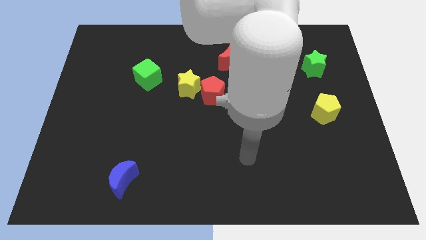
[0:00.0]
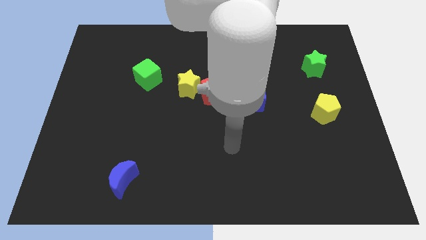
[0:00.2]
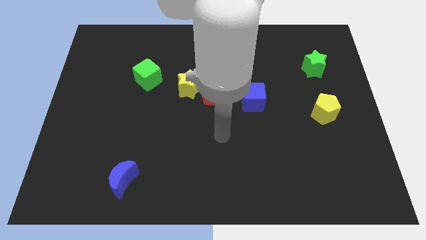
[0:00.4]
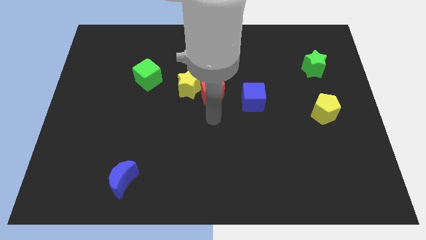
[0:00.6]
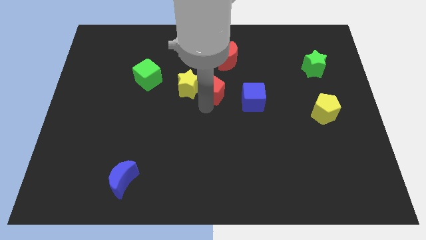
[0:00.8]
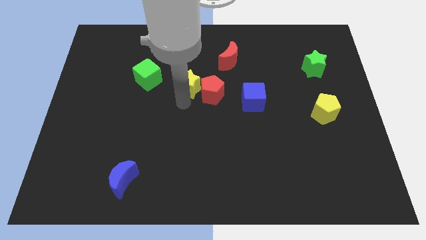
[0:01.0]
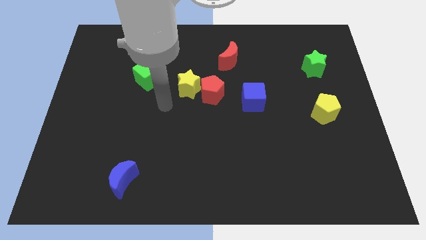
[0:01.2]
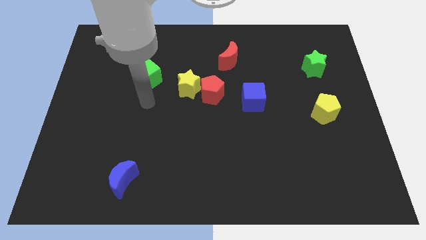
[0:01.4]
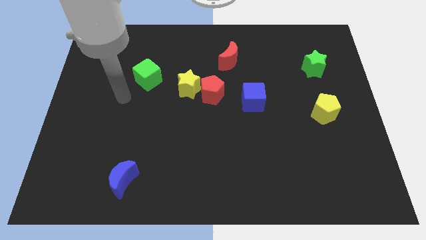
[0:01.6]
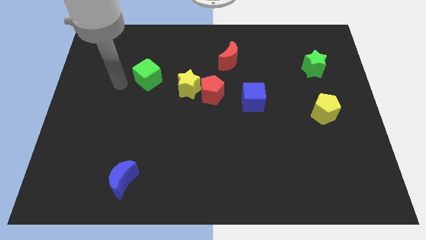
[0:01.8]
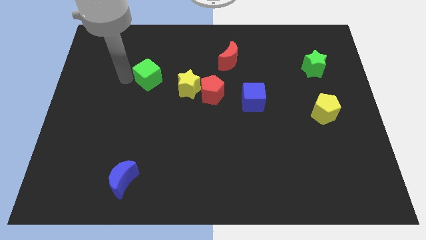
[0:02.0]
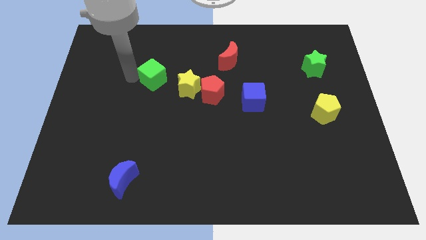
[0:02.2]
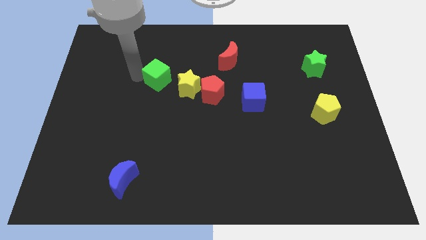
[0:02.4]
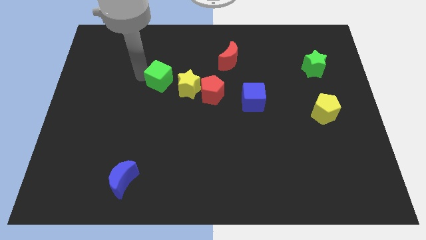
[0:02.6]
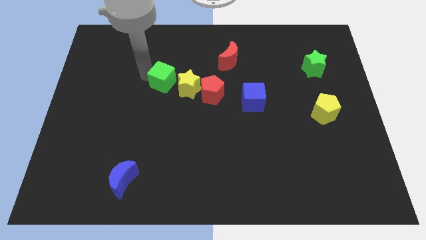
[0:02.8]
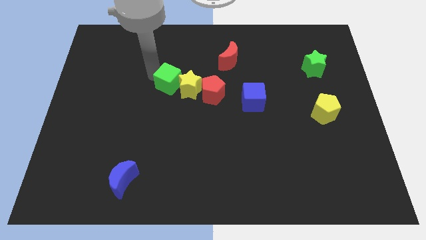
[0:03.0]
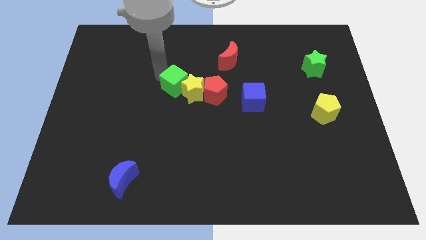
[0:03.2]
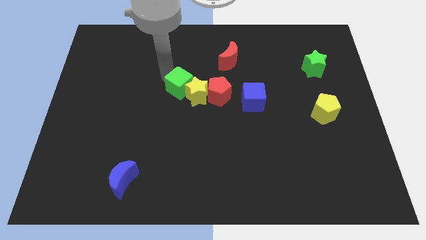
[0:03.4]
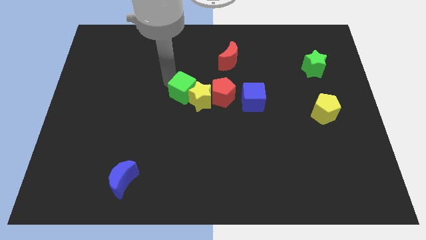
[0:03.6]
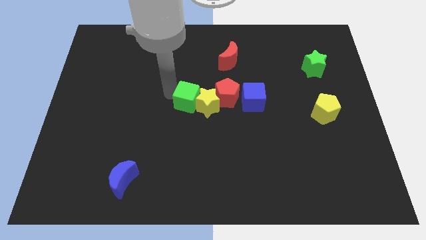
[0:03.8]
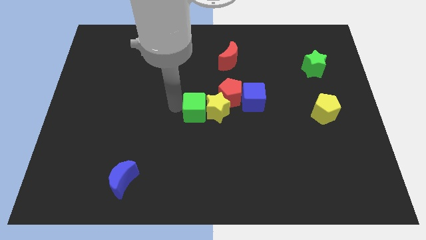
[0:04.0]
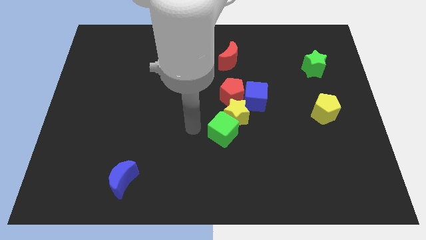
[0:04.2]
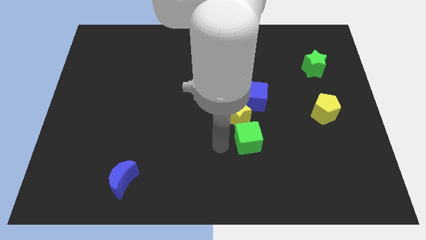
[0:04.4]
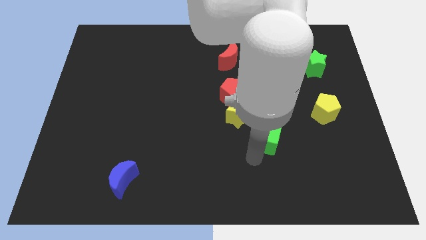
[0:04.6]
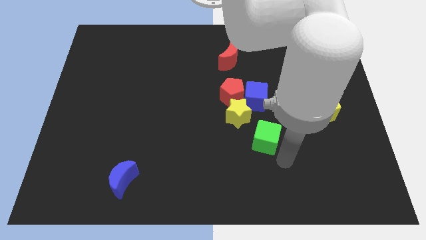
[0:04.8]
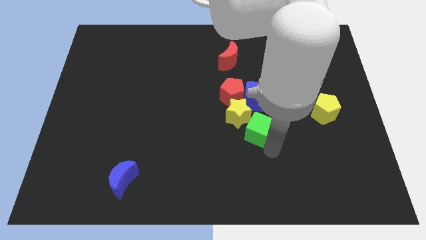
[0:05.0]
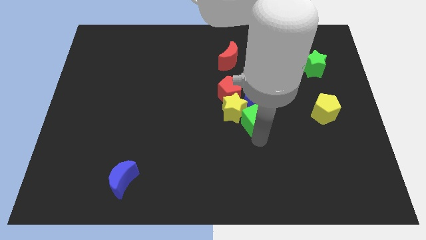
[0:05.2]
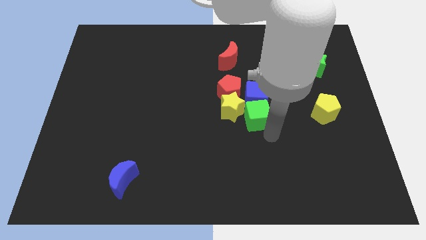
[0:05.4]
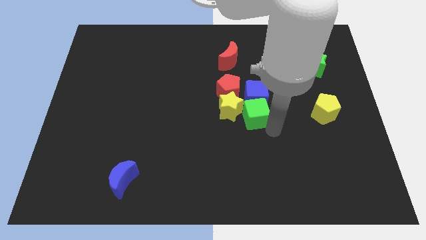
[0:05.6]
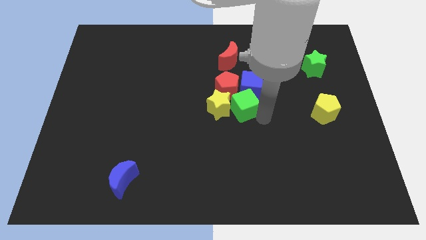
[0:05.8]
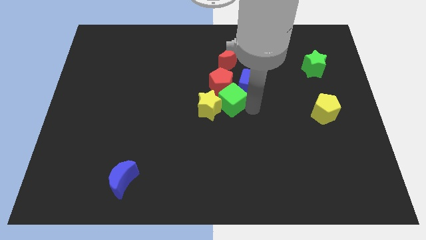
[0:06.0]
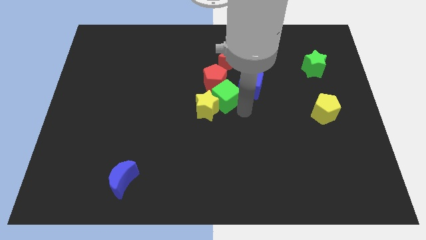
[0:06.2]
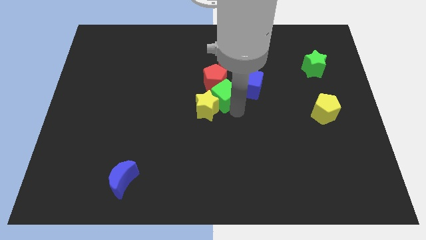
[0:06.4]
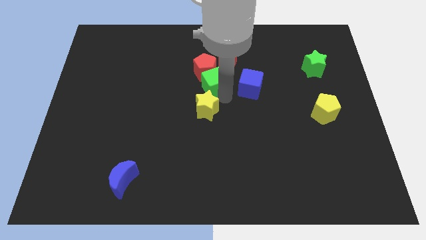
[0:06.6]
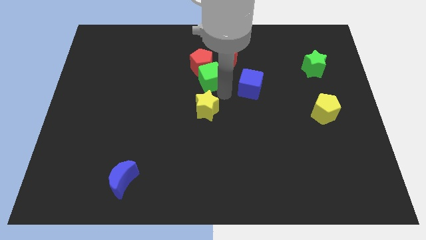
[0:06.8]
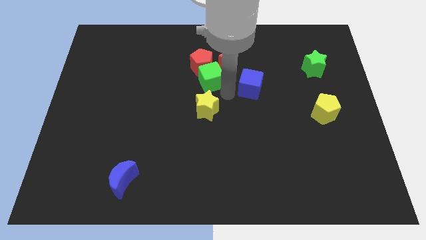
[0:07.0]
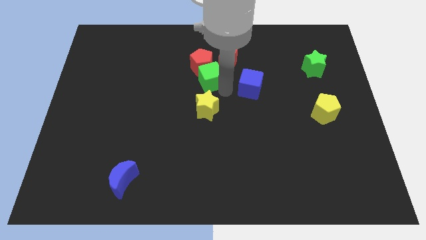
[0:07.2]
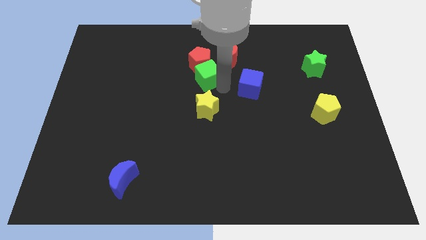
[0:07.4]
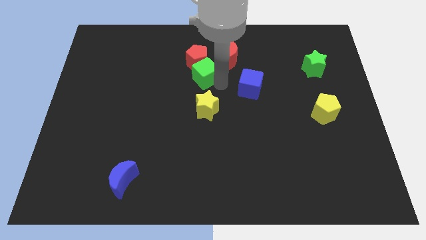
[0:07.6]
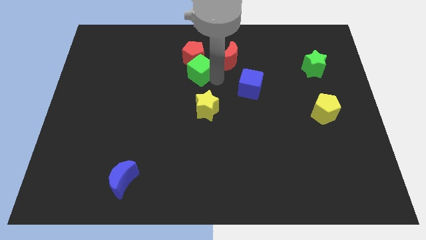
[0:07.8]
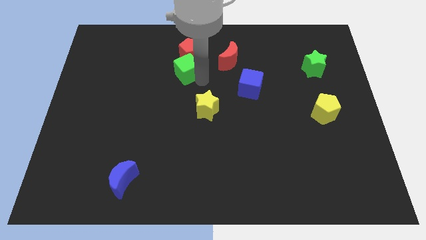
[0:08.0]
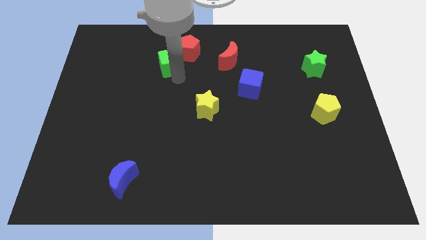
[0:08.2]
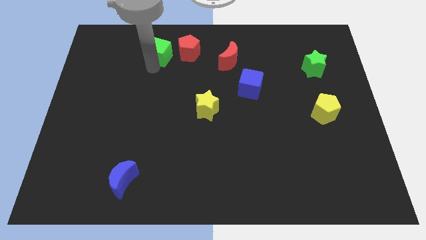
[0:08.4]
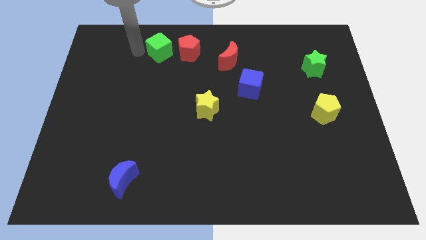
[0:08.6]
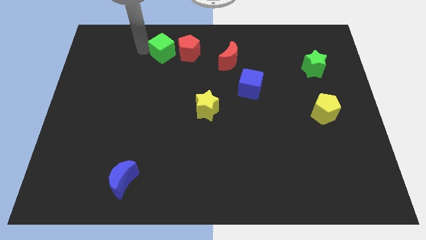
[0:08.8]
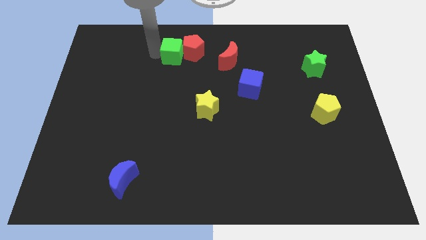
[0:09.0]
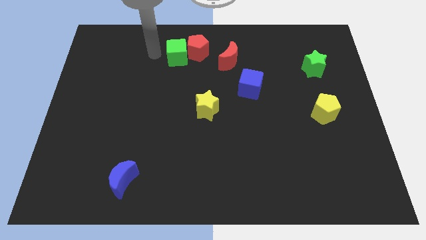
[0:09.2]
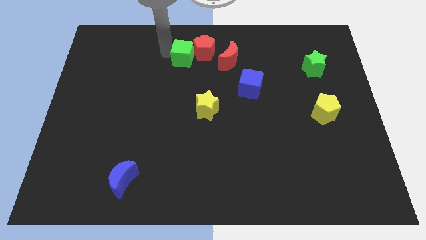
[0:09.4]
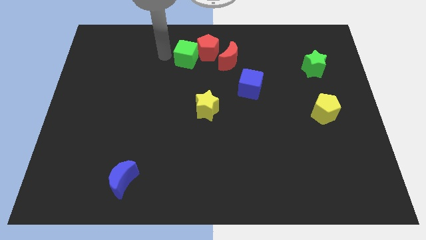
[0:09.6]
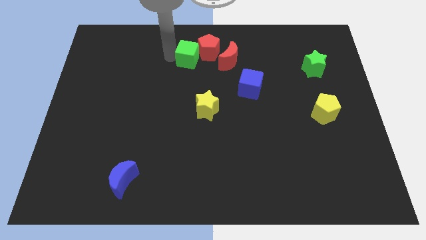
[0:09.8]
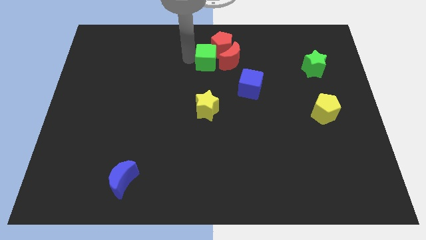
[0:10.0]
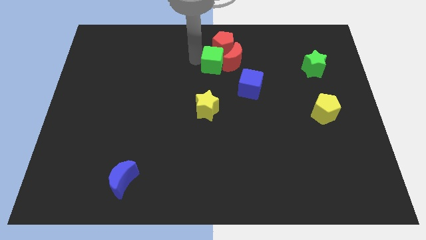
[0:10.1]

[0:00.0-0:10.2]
move the green cube towards the red moon

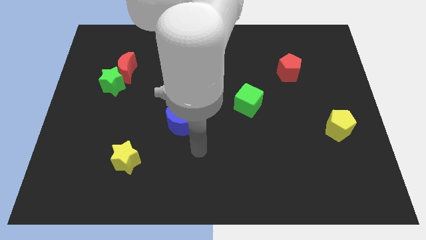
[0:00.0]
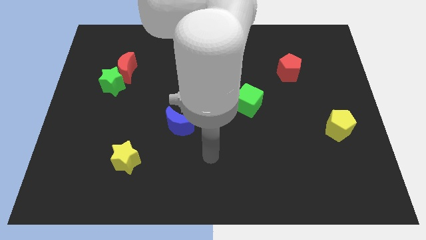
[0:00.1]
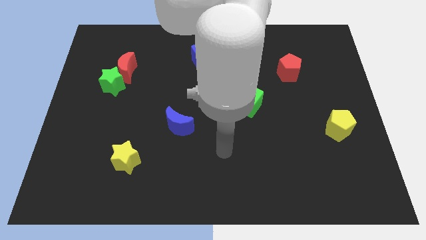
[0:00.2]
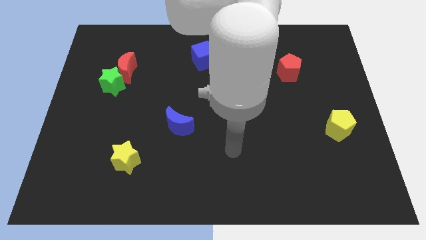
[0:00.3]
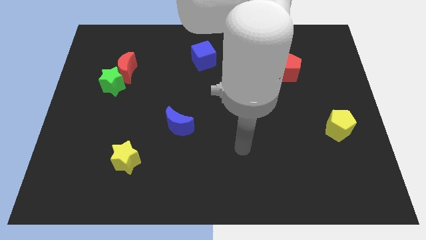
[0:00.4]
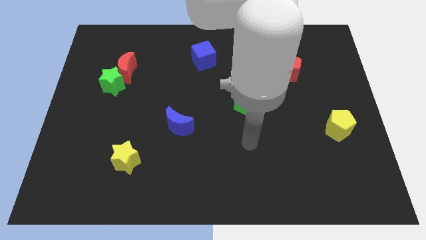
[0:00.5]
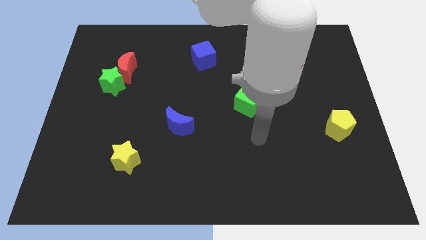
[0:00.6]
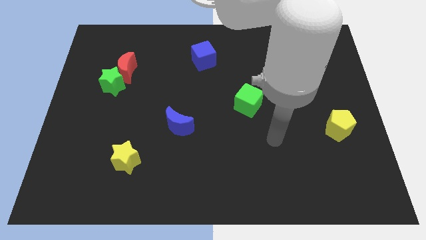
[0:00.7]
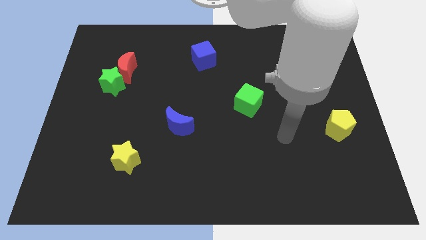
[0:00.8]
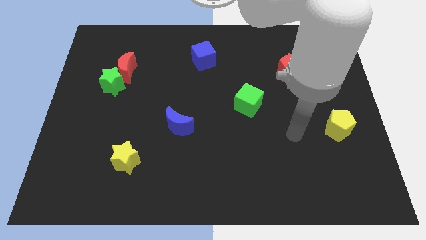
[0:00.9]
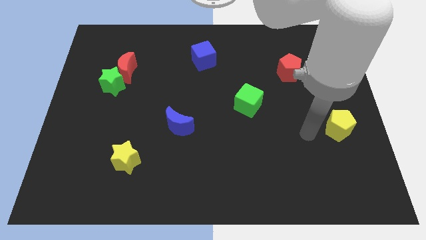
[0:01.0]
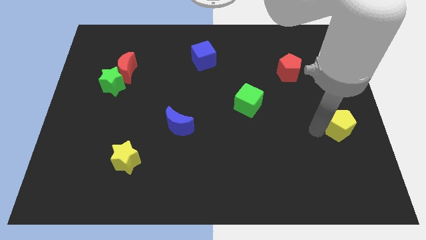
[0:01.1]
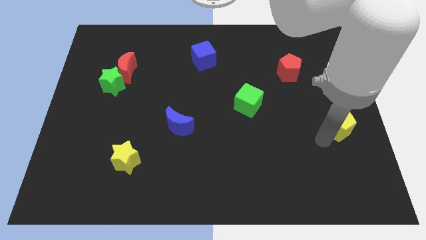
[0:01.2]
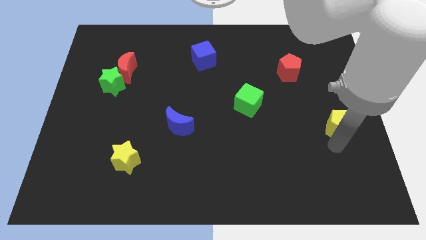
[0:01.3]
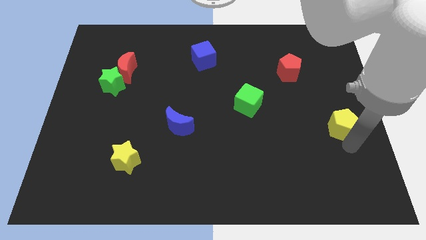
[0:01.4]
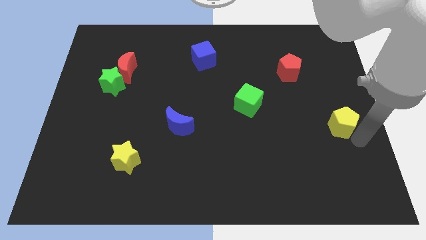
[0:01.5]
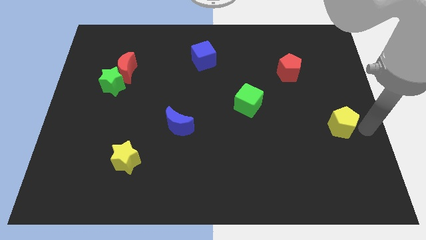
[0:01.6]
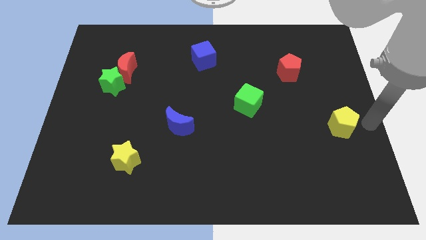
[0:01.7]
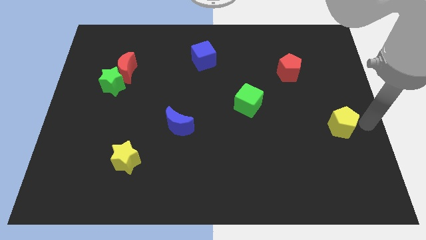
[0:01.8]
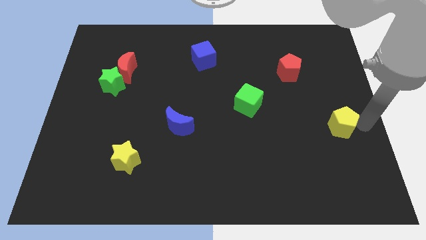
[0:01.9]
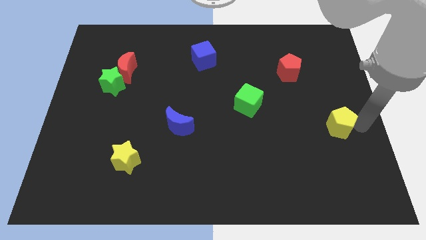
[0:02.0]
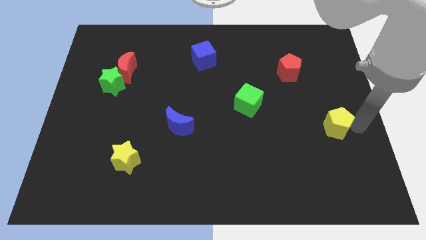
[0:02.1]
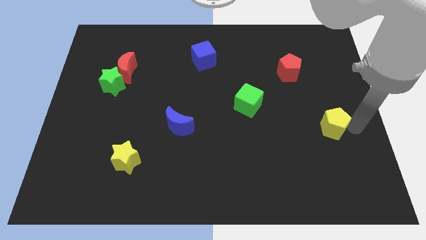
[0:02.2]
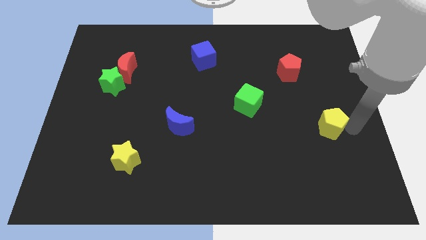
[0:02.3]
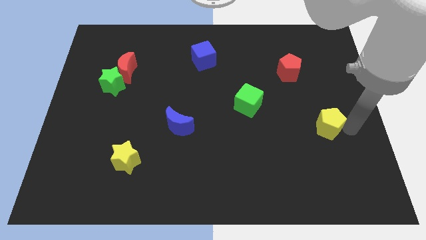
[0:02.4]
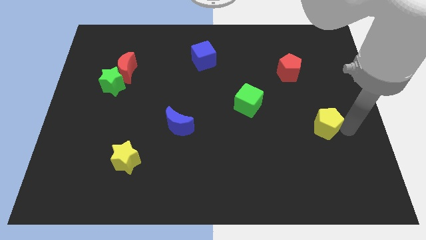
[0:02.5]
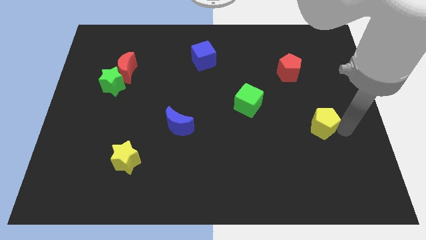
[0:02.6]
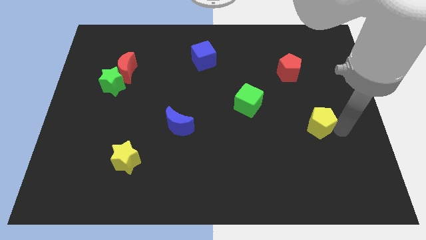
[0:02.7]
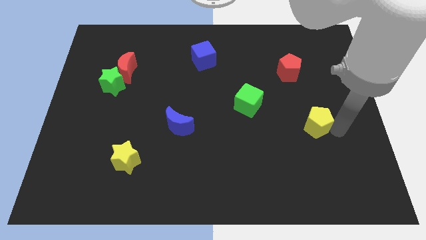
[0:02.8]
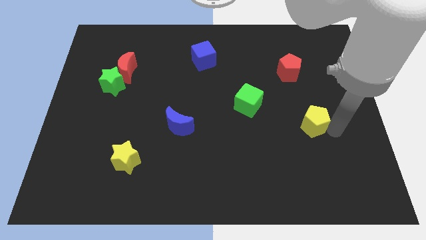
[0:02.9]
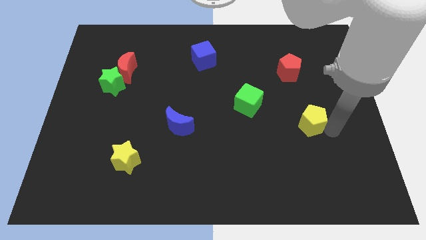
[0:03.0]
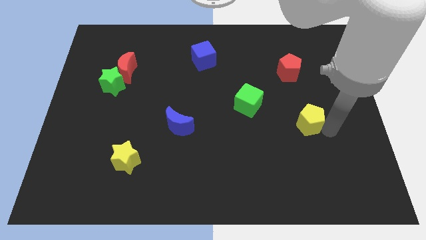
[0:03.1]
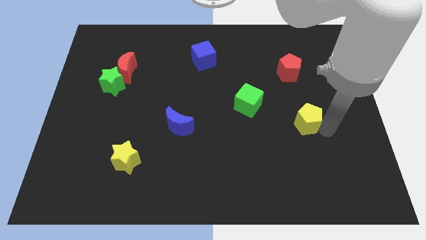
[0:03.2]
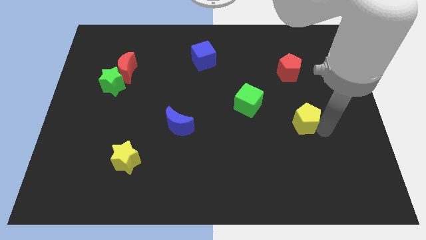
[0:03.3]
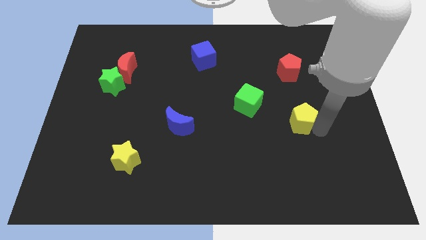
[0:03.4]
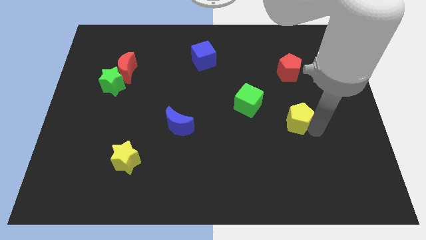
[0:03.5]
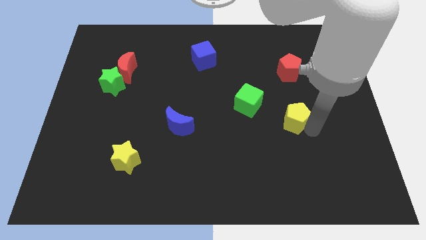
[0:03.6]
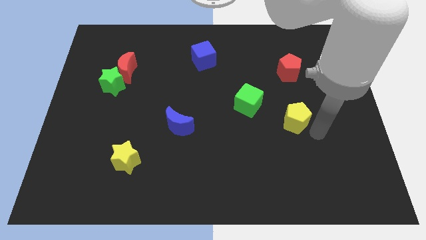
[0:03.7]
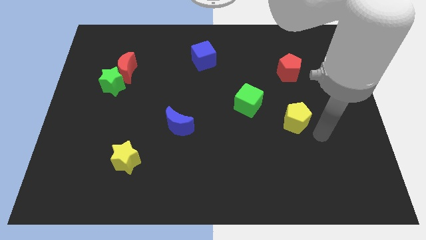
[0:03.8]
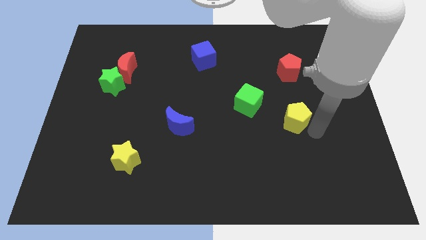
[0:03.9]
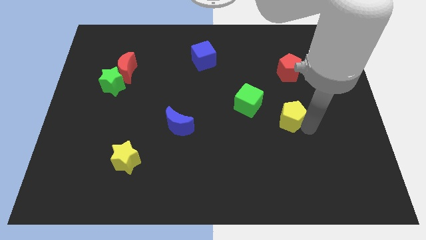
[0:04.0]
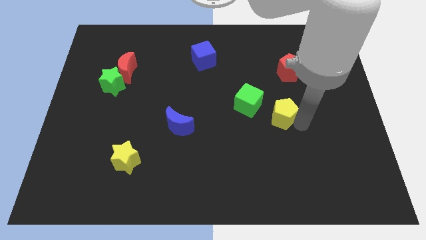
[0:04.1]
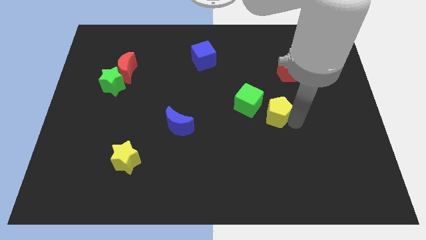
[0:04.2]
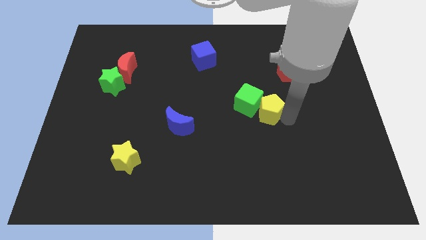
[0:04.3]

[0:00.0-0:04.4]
push the yellow pentagon close to the green cube
